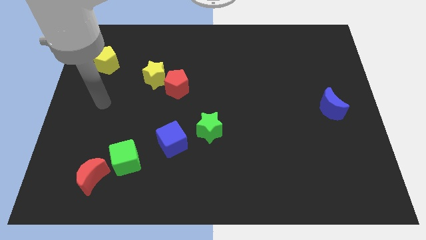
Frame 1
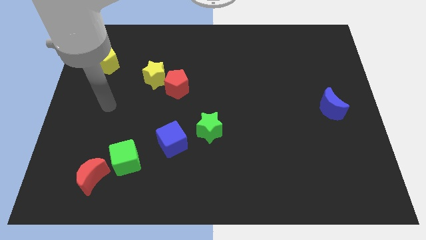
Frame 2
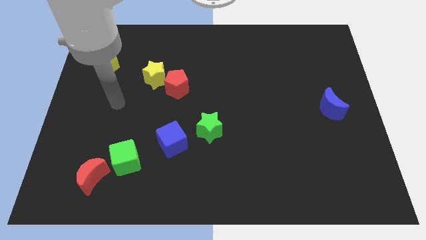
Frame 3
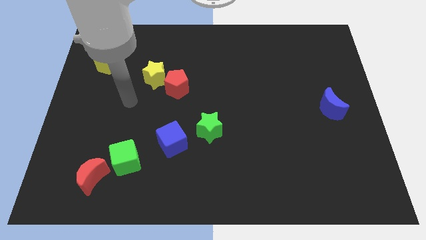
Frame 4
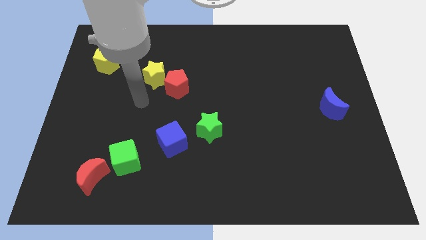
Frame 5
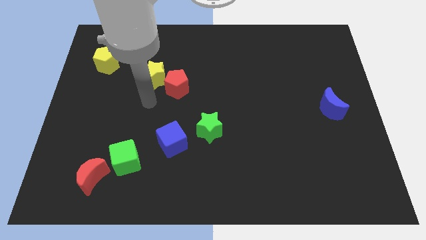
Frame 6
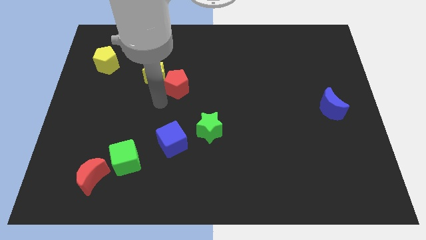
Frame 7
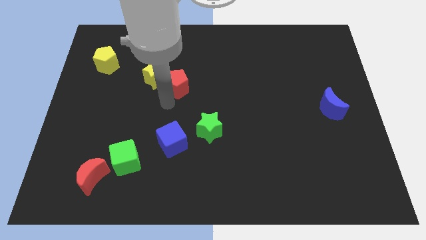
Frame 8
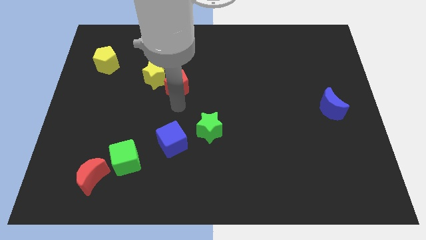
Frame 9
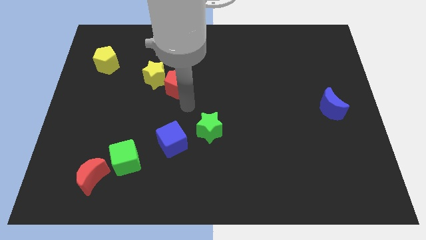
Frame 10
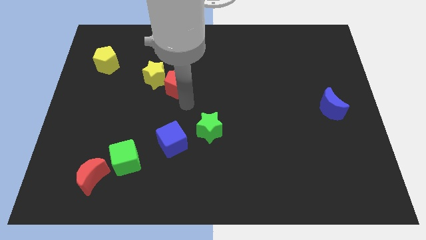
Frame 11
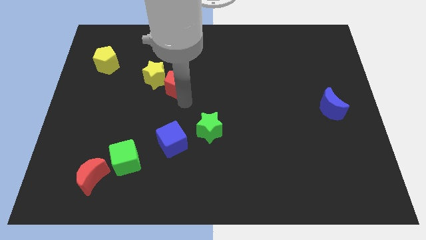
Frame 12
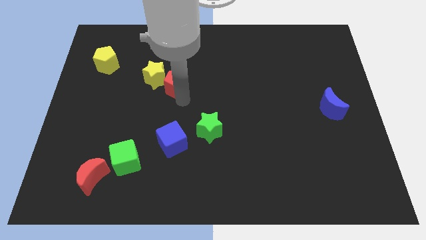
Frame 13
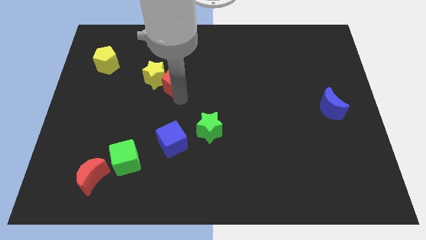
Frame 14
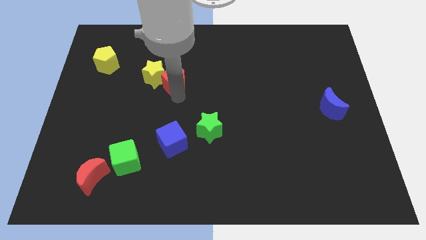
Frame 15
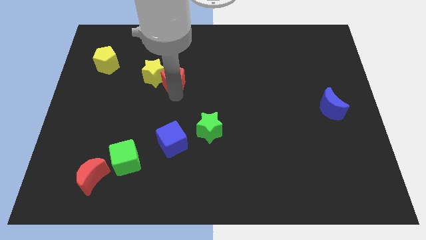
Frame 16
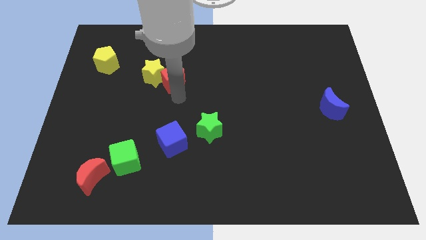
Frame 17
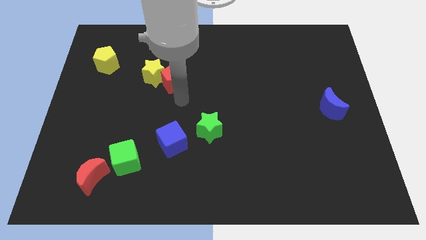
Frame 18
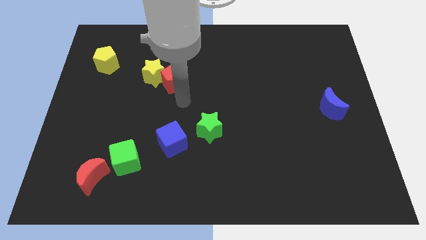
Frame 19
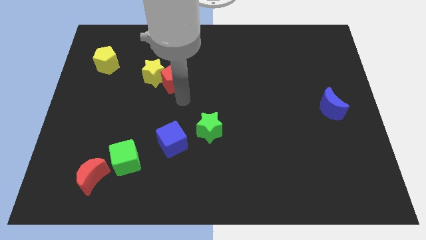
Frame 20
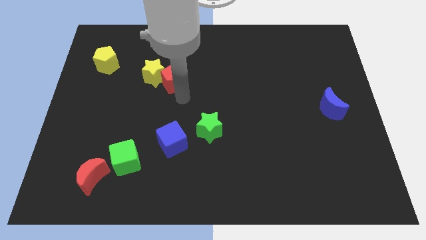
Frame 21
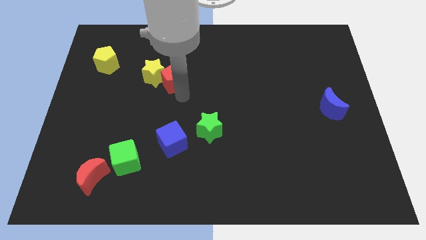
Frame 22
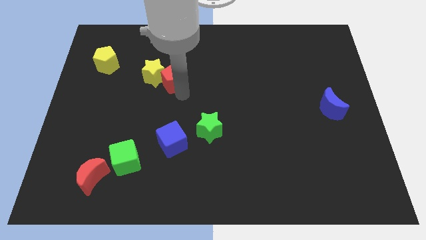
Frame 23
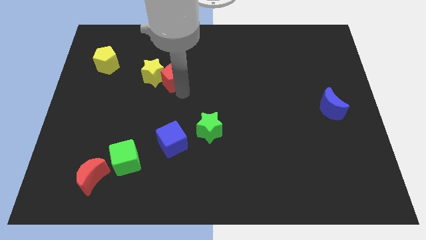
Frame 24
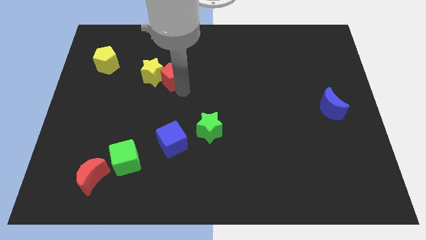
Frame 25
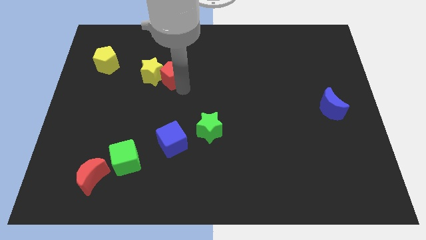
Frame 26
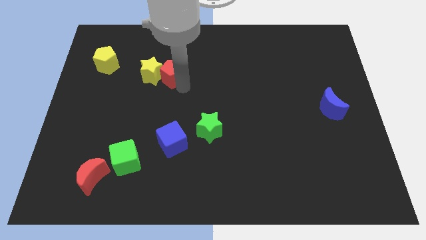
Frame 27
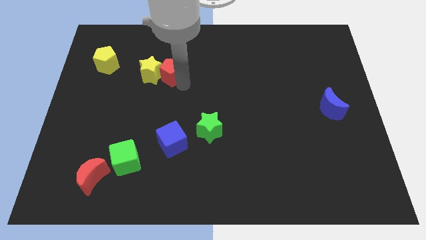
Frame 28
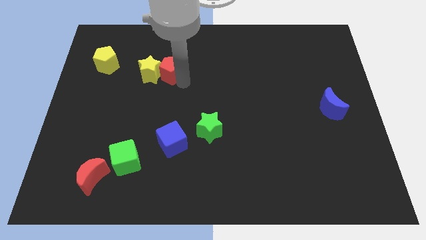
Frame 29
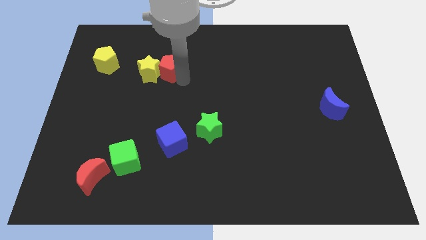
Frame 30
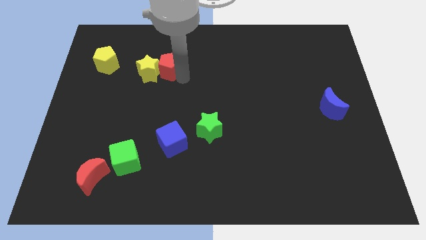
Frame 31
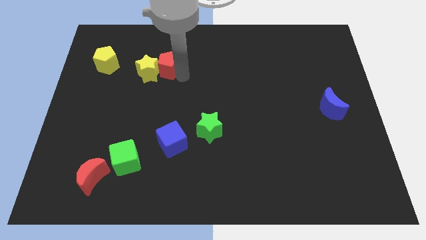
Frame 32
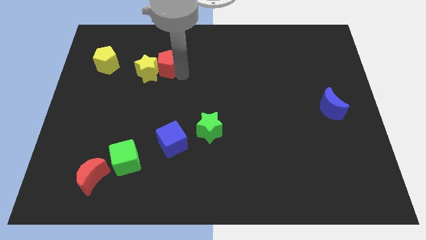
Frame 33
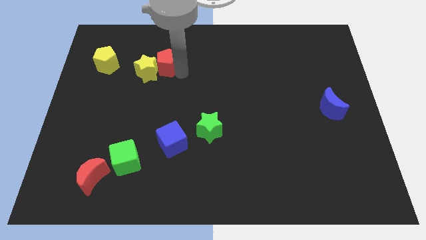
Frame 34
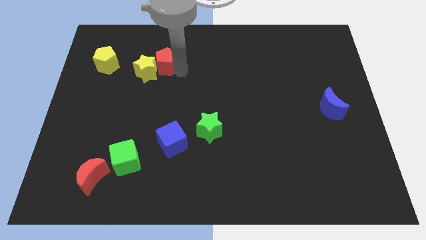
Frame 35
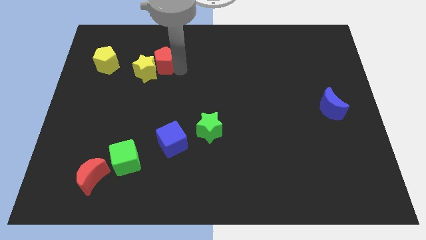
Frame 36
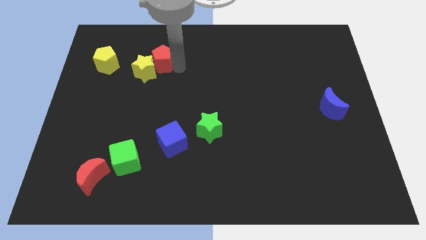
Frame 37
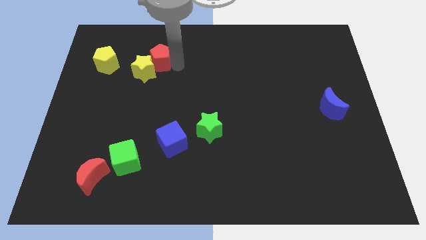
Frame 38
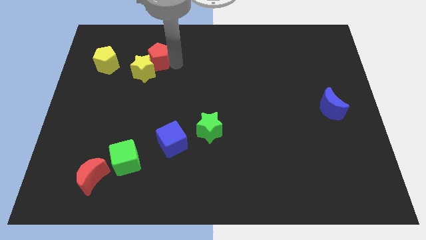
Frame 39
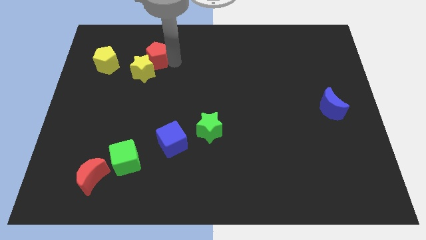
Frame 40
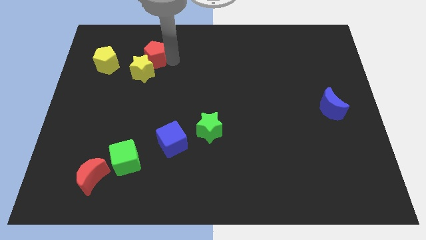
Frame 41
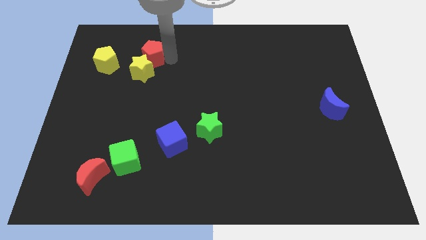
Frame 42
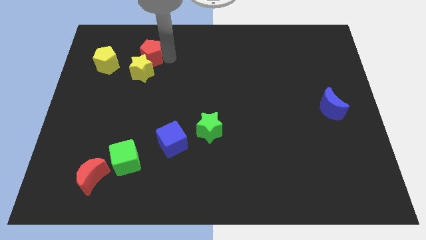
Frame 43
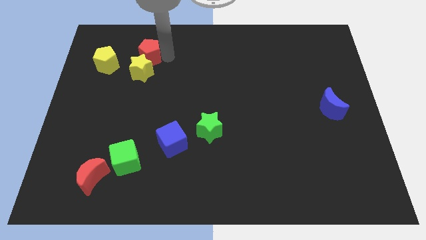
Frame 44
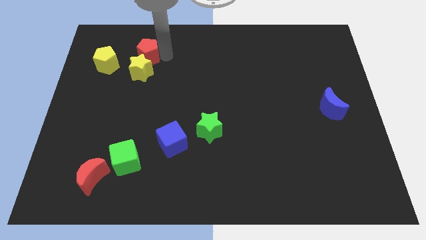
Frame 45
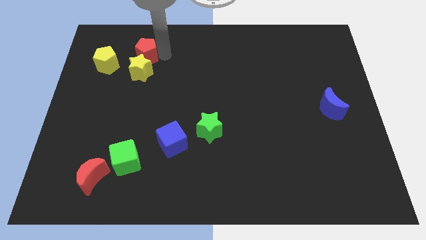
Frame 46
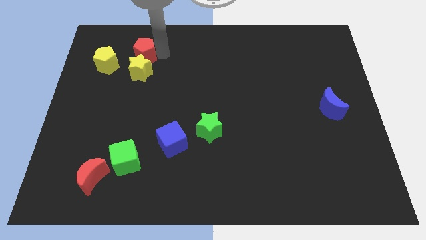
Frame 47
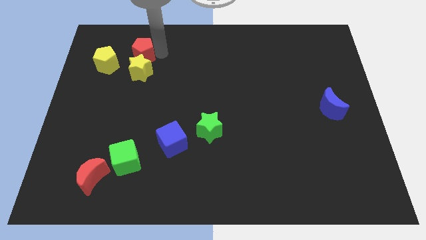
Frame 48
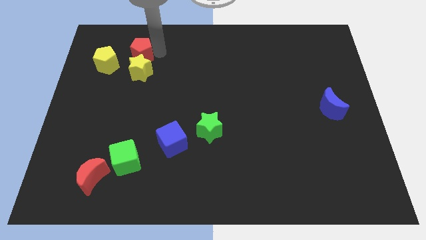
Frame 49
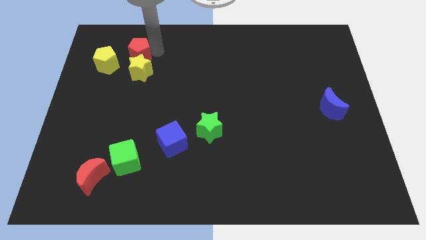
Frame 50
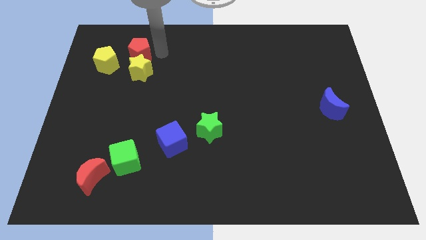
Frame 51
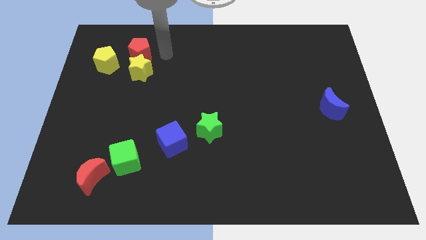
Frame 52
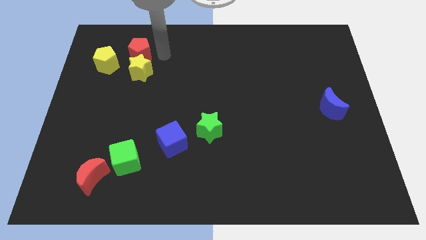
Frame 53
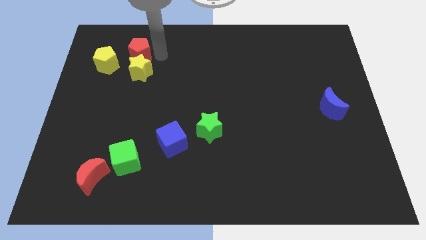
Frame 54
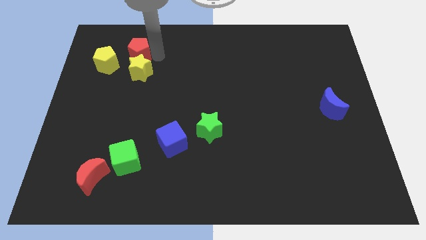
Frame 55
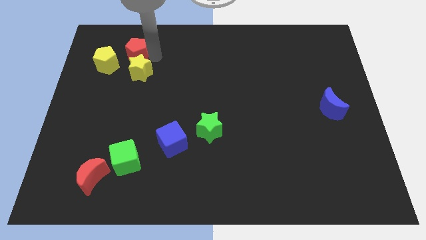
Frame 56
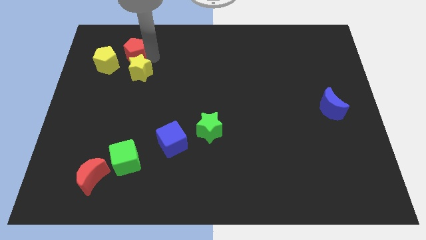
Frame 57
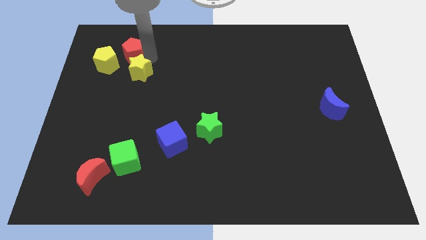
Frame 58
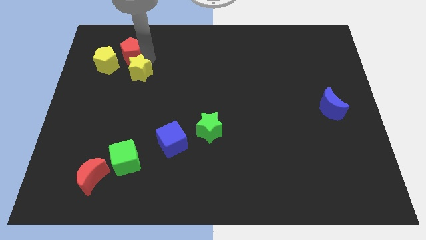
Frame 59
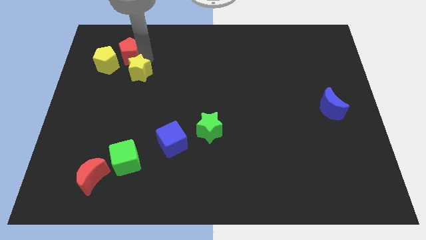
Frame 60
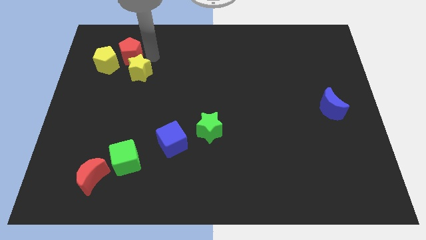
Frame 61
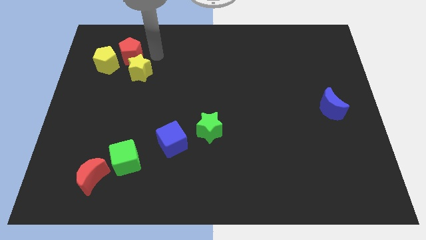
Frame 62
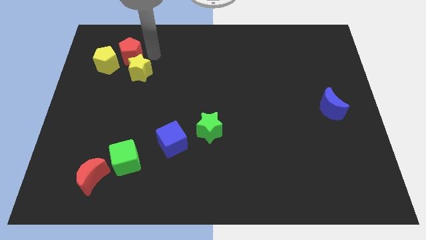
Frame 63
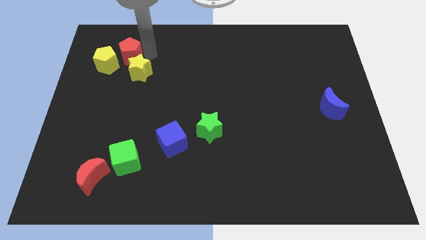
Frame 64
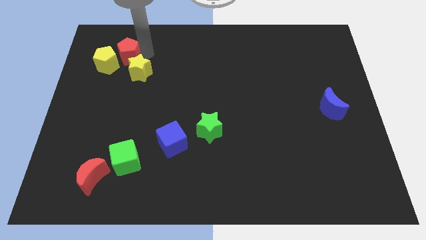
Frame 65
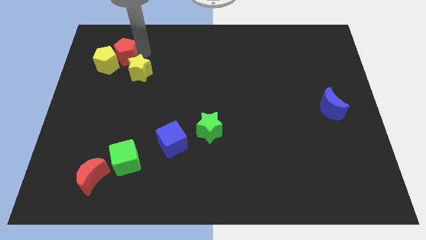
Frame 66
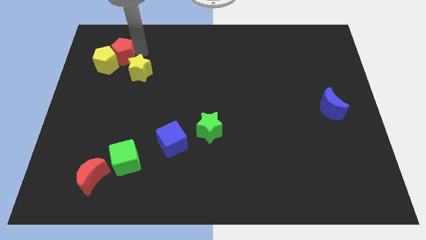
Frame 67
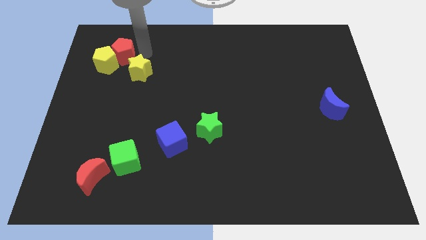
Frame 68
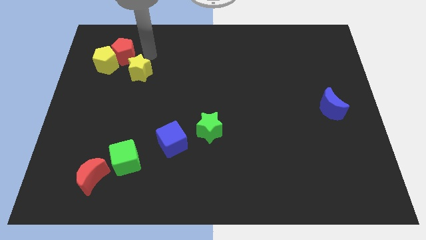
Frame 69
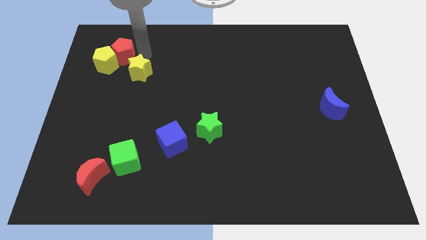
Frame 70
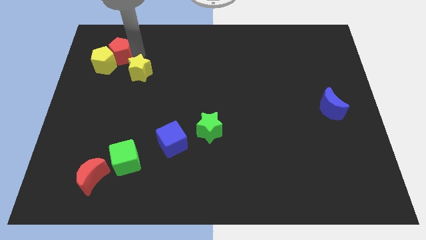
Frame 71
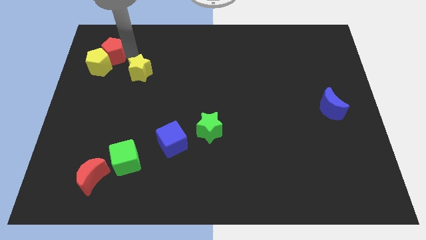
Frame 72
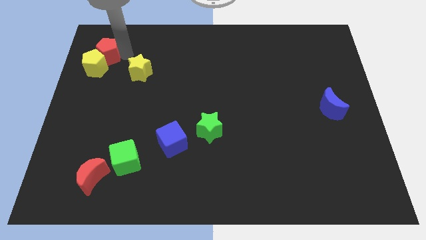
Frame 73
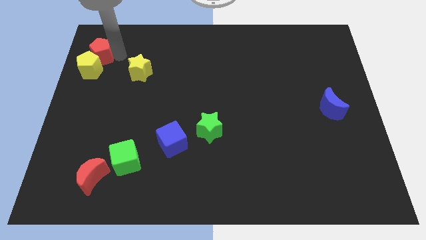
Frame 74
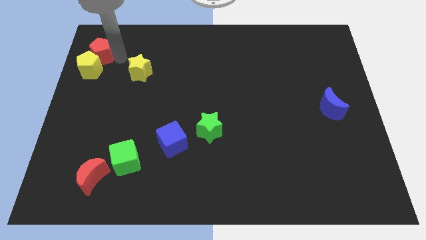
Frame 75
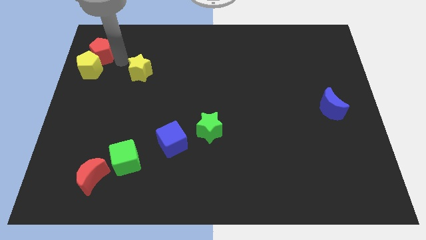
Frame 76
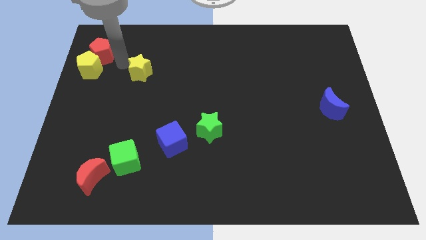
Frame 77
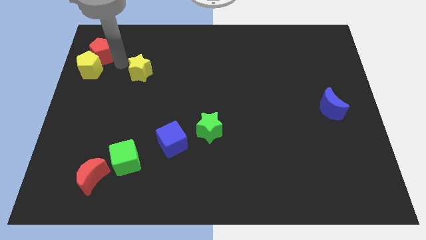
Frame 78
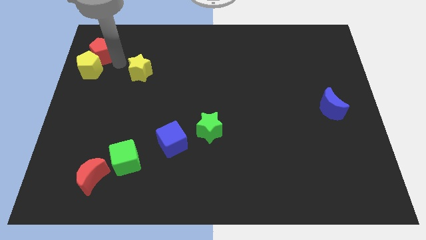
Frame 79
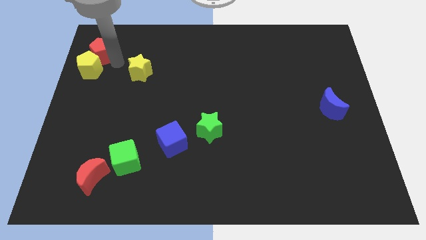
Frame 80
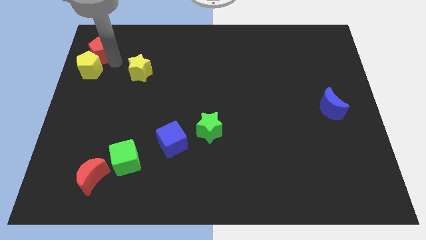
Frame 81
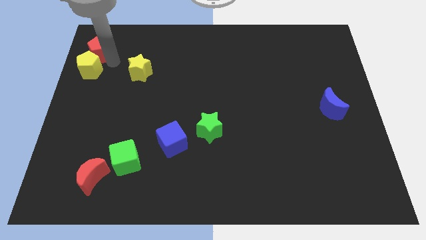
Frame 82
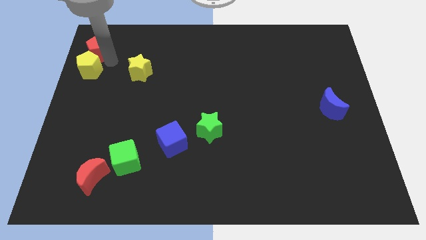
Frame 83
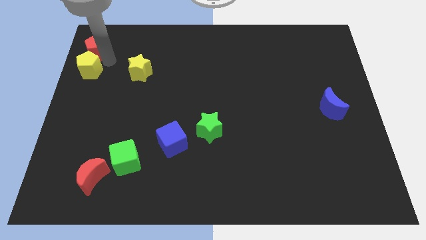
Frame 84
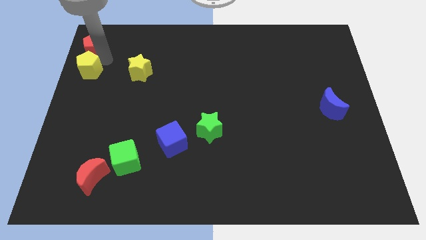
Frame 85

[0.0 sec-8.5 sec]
put the red pentagon to the top left of the board
